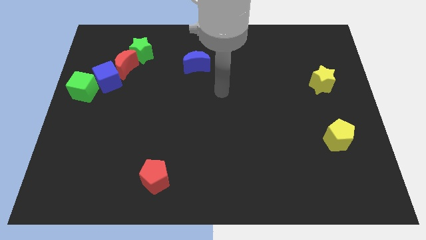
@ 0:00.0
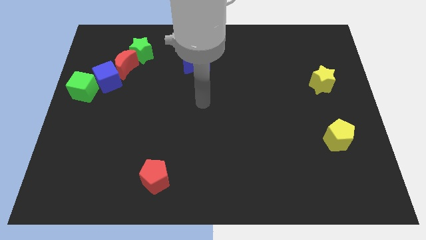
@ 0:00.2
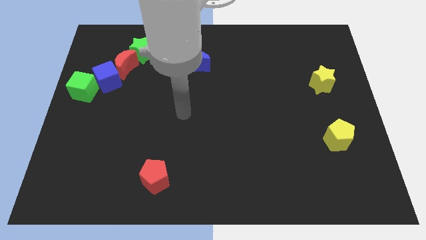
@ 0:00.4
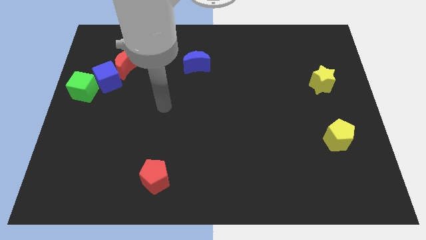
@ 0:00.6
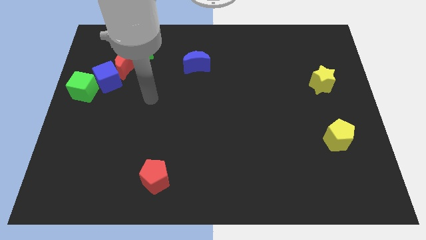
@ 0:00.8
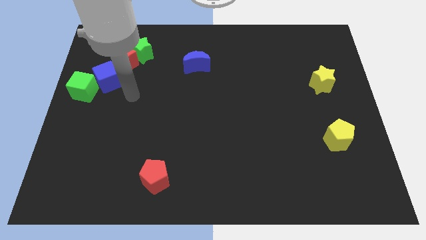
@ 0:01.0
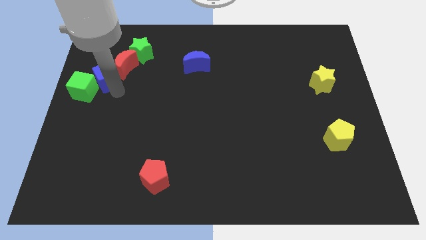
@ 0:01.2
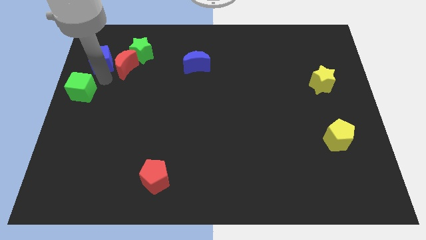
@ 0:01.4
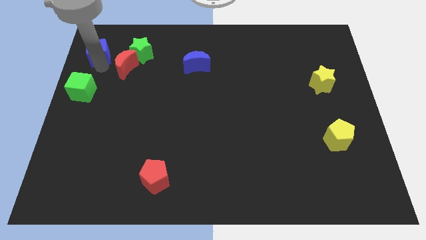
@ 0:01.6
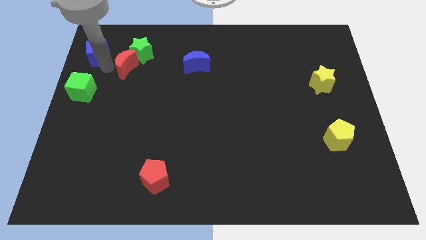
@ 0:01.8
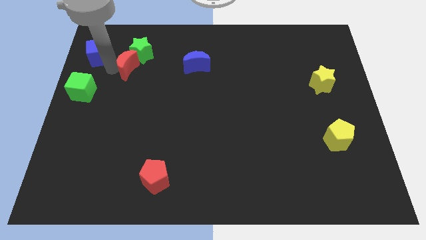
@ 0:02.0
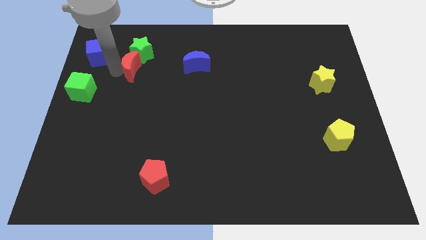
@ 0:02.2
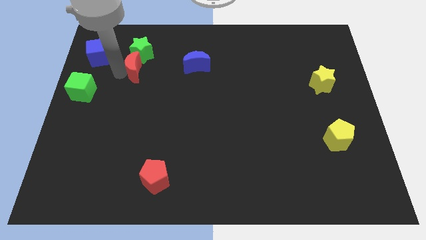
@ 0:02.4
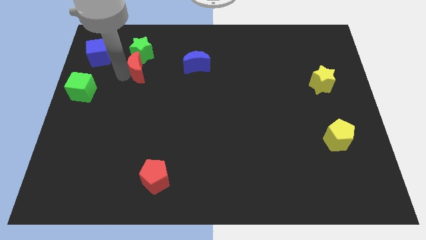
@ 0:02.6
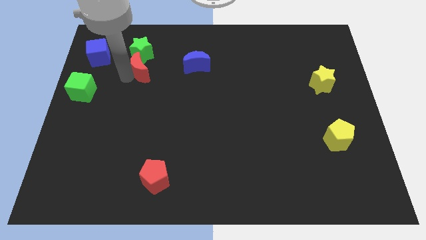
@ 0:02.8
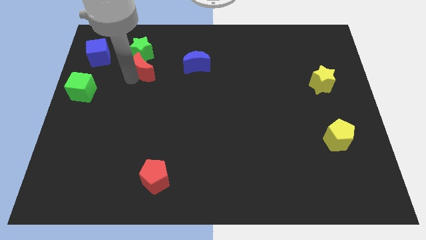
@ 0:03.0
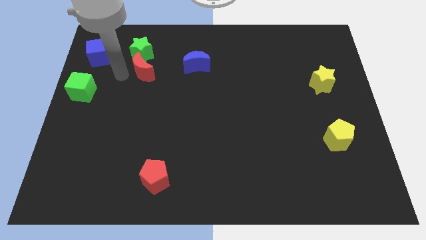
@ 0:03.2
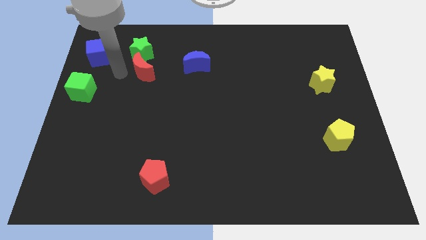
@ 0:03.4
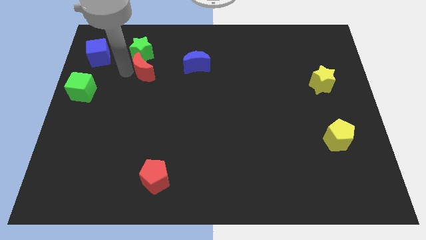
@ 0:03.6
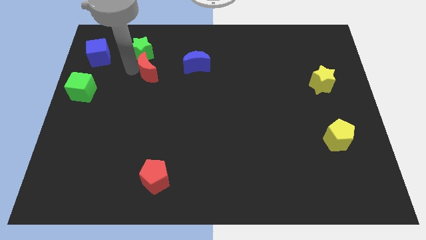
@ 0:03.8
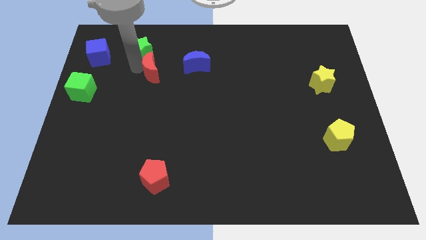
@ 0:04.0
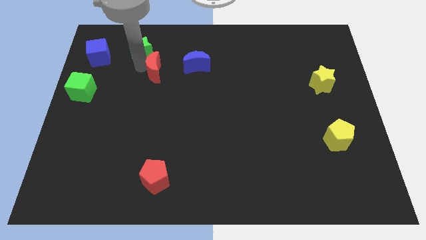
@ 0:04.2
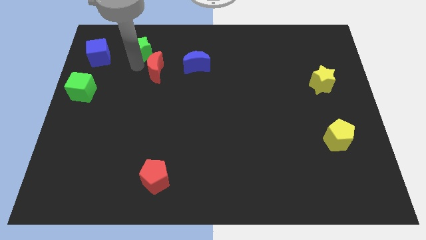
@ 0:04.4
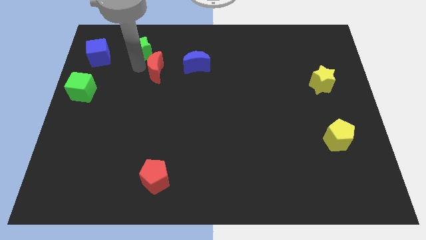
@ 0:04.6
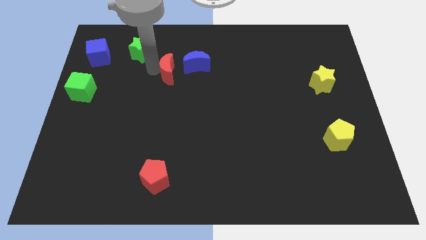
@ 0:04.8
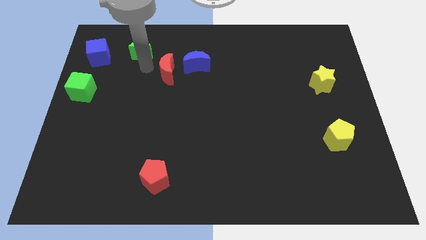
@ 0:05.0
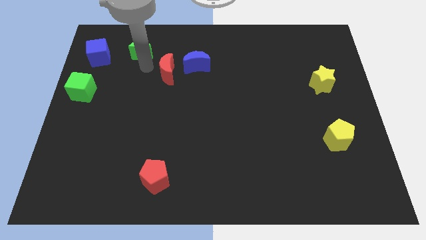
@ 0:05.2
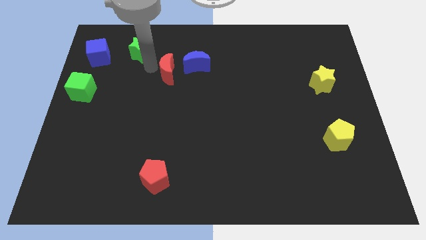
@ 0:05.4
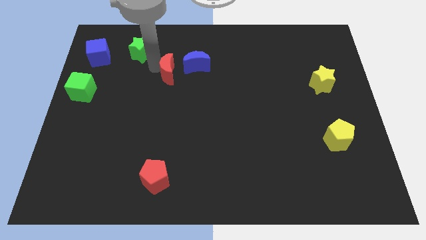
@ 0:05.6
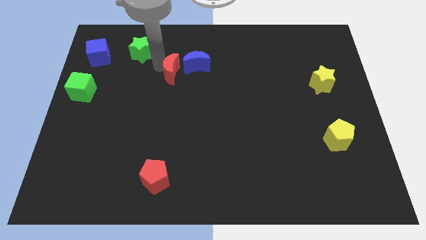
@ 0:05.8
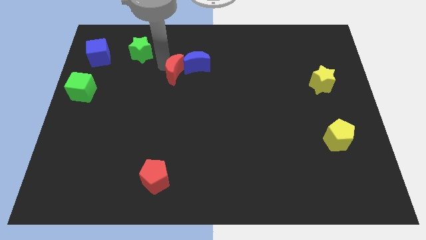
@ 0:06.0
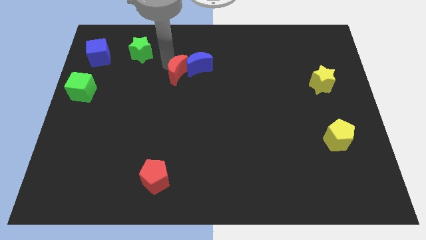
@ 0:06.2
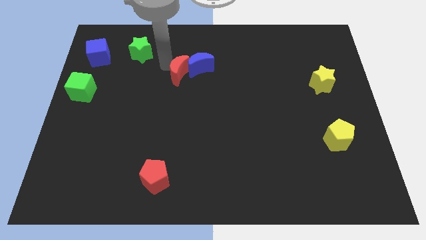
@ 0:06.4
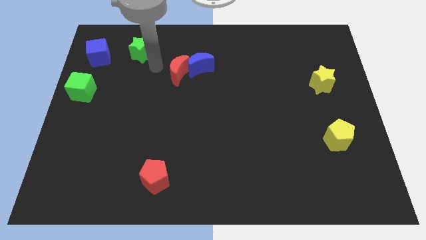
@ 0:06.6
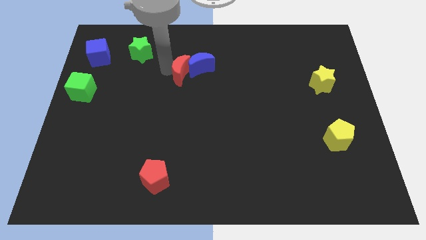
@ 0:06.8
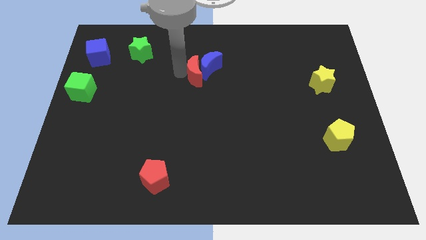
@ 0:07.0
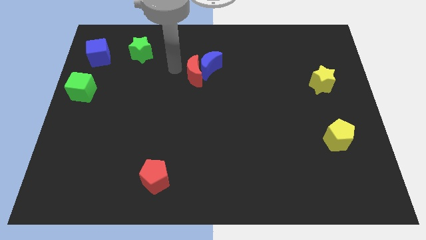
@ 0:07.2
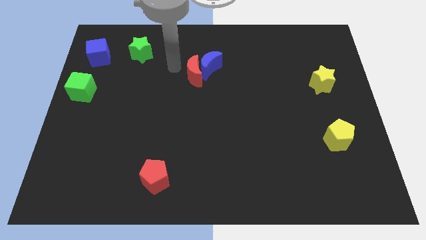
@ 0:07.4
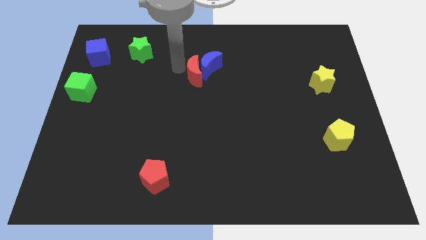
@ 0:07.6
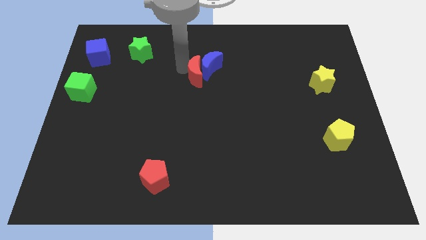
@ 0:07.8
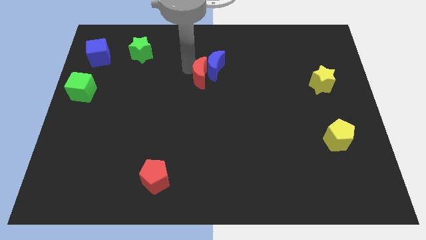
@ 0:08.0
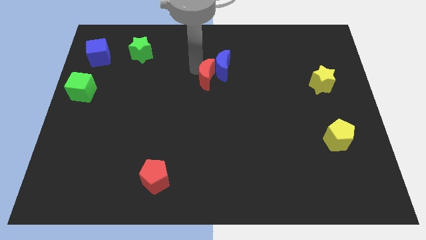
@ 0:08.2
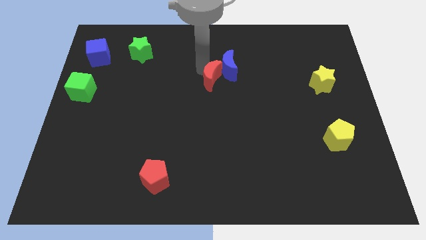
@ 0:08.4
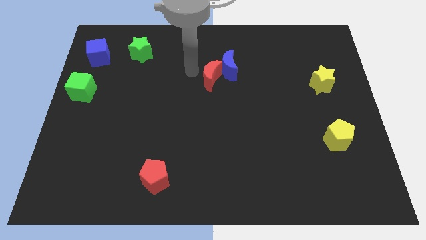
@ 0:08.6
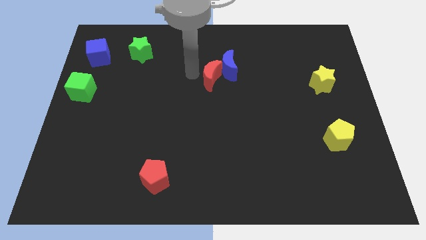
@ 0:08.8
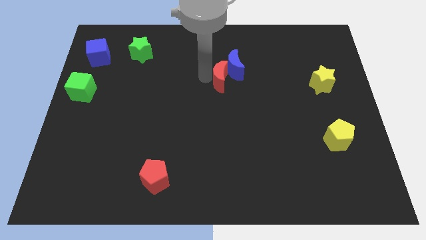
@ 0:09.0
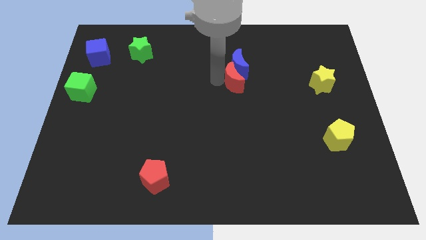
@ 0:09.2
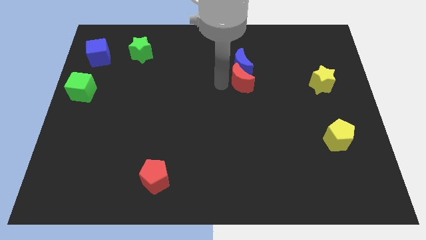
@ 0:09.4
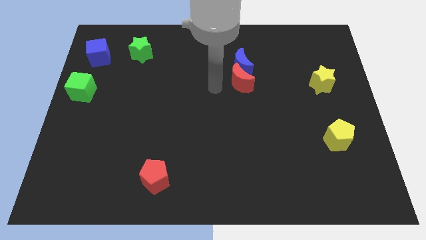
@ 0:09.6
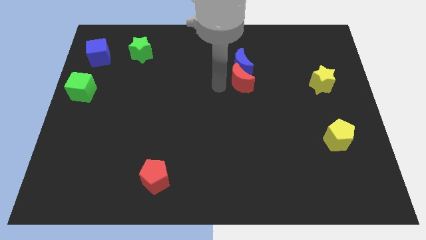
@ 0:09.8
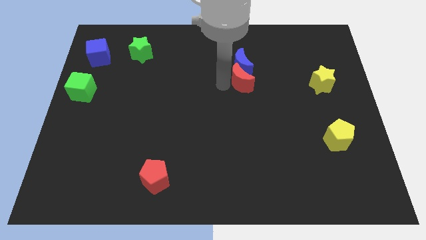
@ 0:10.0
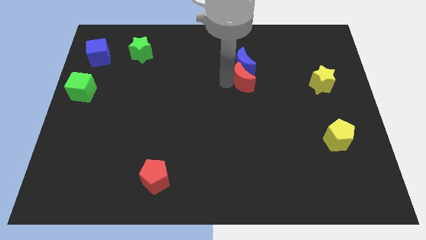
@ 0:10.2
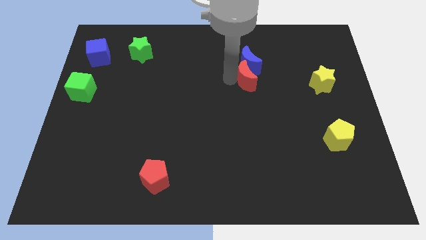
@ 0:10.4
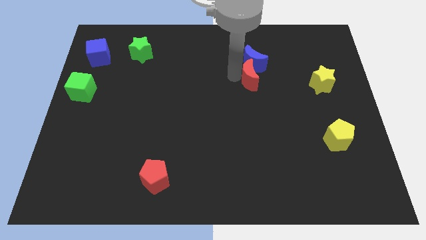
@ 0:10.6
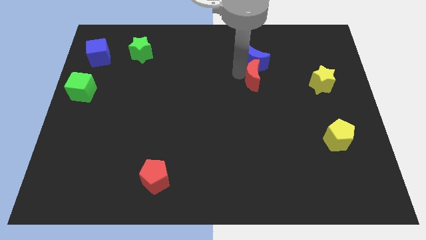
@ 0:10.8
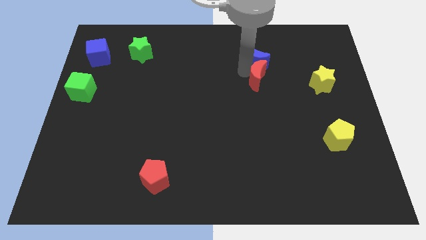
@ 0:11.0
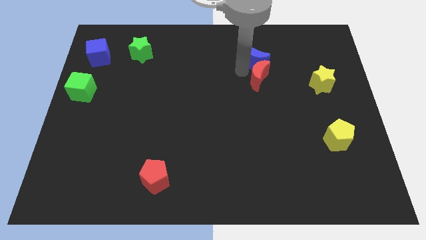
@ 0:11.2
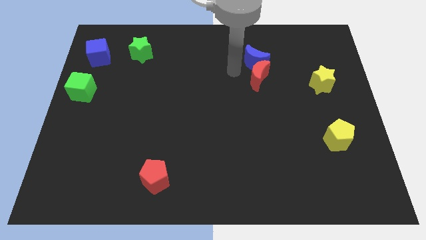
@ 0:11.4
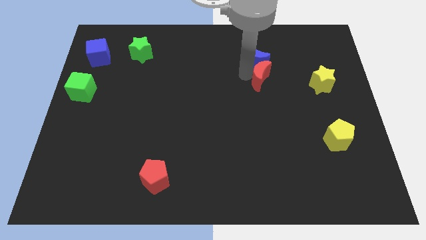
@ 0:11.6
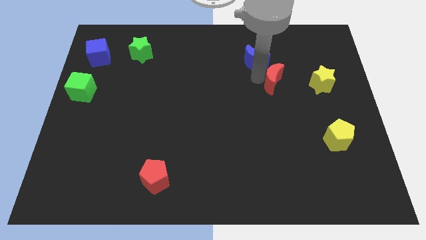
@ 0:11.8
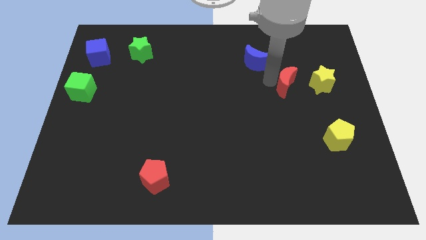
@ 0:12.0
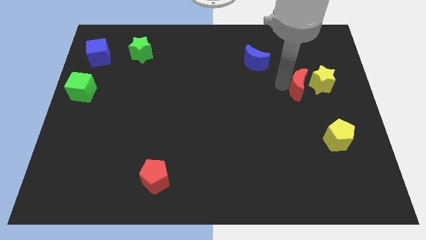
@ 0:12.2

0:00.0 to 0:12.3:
move the red moon towards the yellow star
